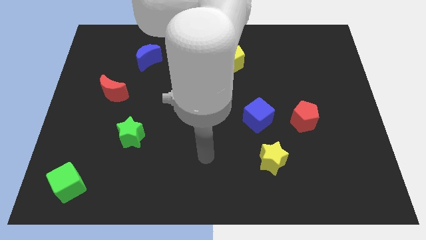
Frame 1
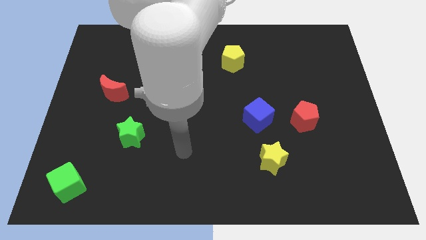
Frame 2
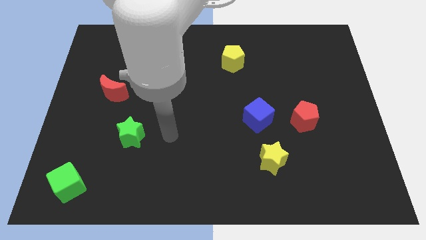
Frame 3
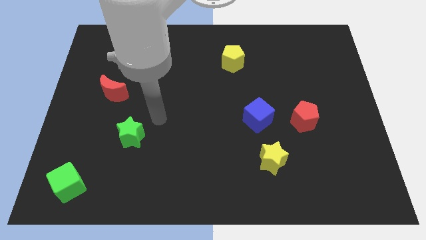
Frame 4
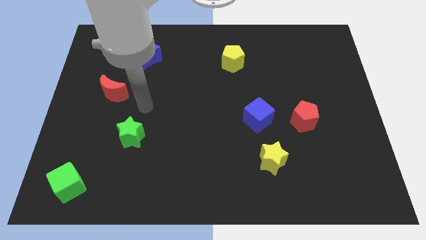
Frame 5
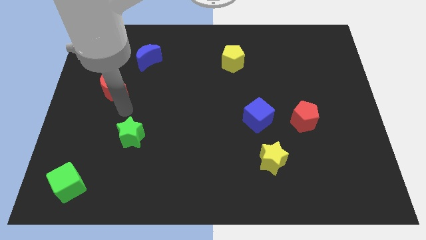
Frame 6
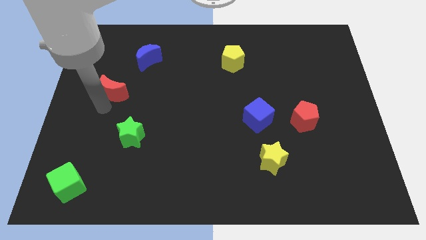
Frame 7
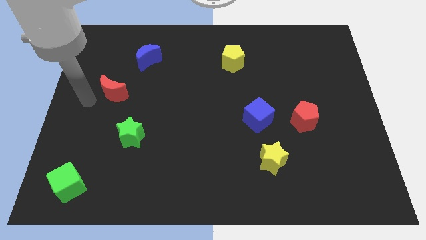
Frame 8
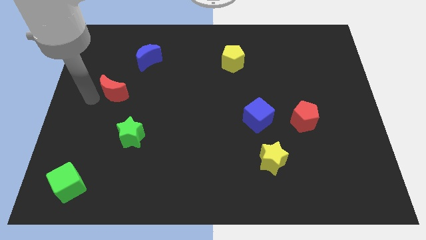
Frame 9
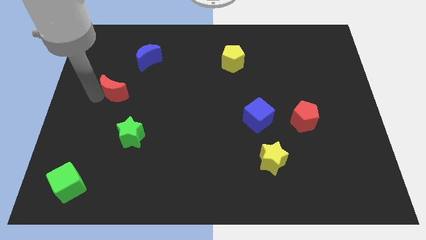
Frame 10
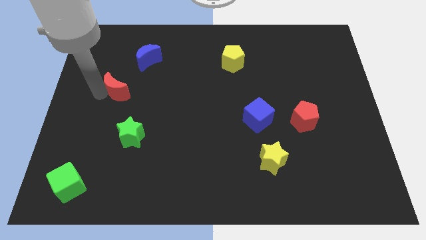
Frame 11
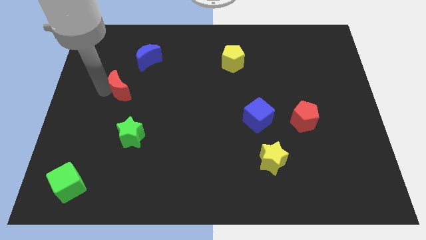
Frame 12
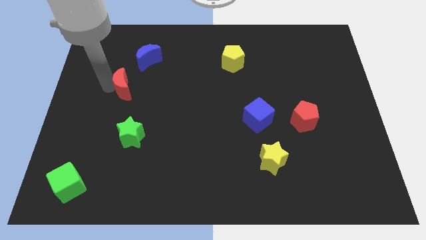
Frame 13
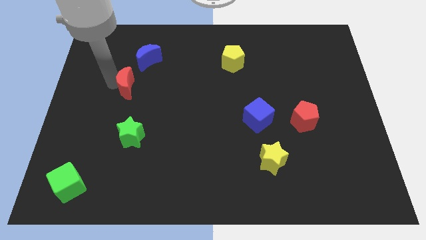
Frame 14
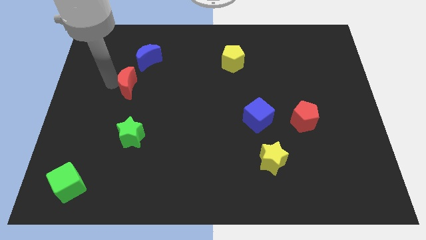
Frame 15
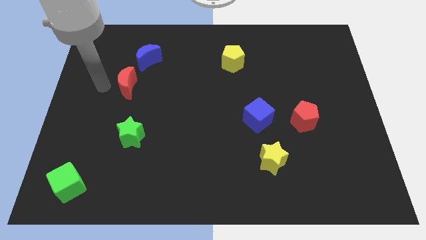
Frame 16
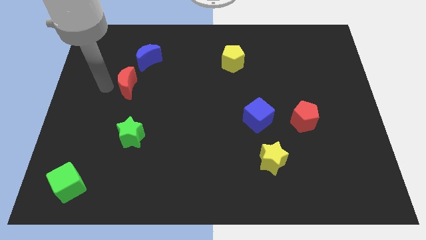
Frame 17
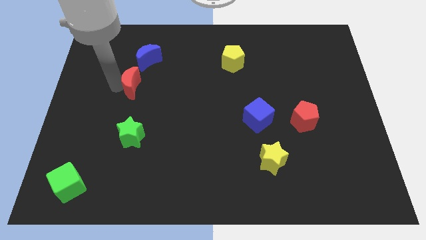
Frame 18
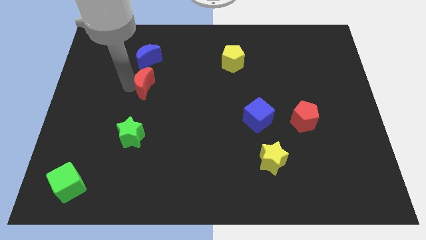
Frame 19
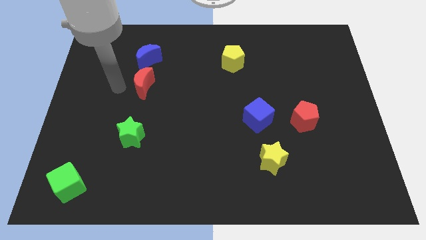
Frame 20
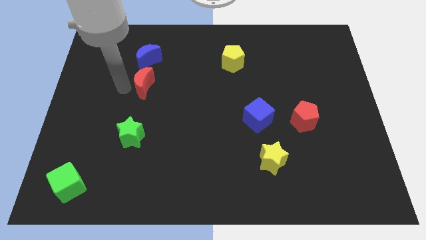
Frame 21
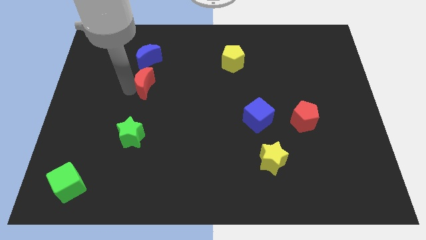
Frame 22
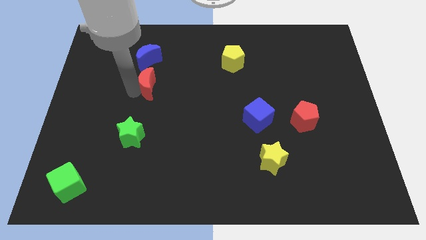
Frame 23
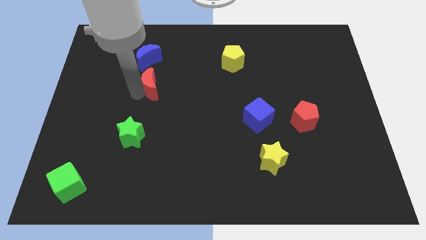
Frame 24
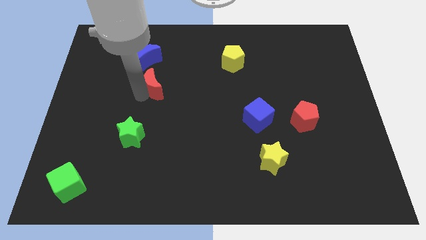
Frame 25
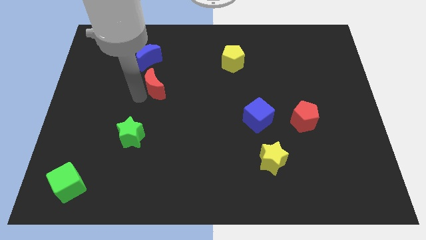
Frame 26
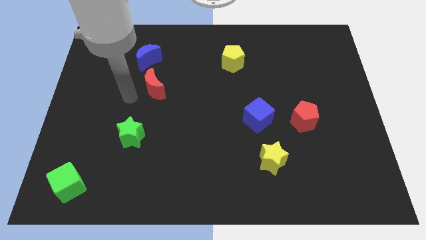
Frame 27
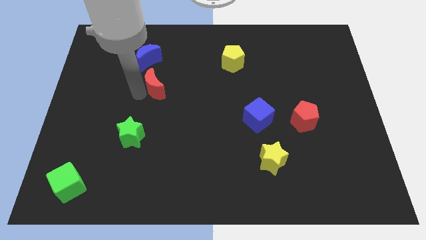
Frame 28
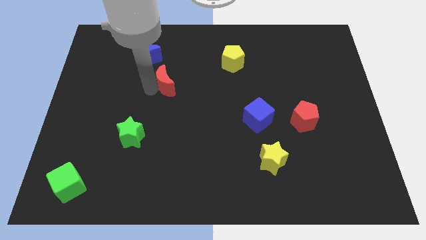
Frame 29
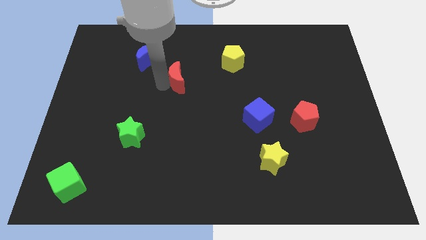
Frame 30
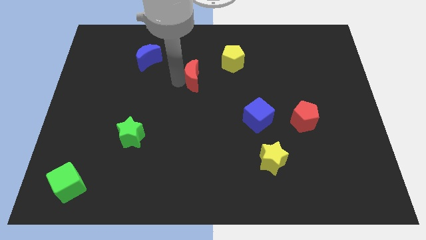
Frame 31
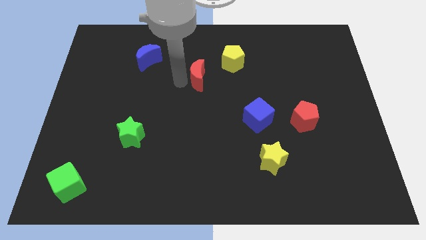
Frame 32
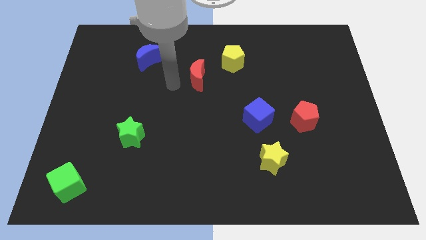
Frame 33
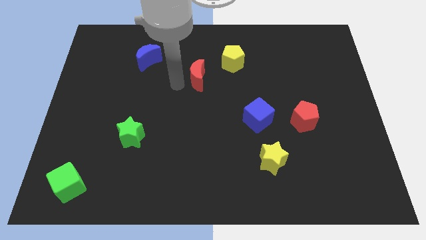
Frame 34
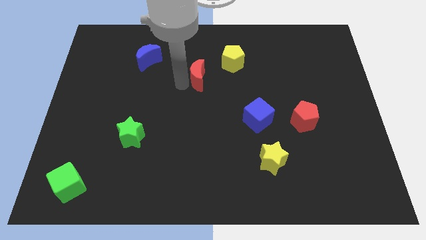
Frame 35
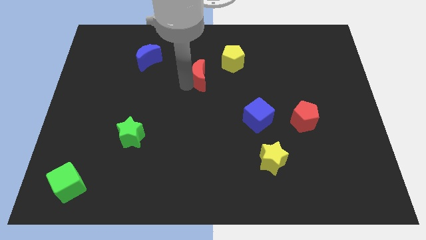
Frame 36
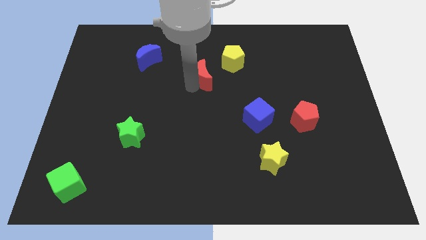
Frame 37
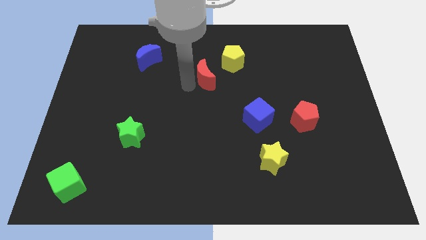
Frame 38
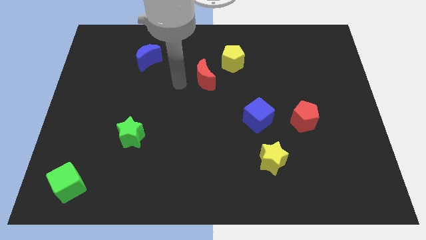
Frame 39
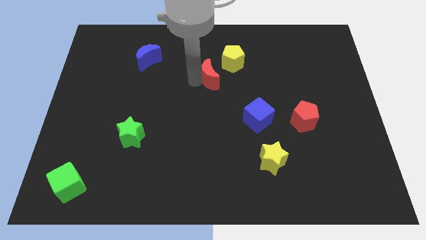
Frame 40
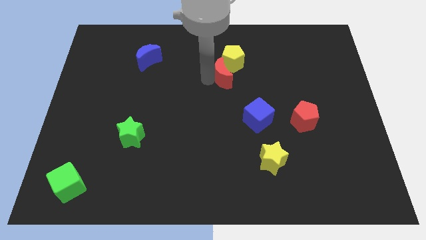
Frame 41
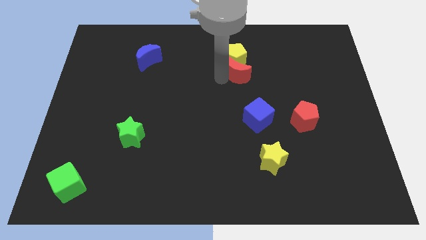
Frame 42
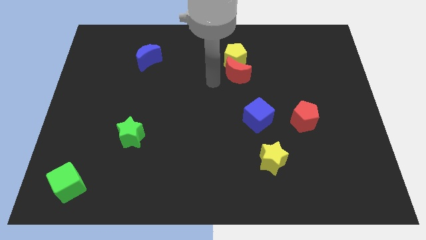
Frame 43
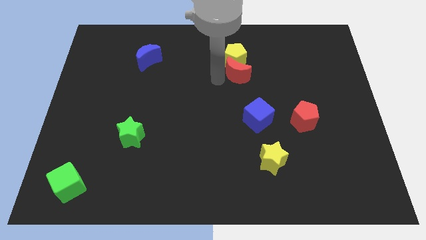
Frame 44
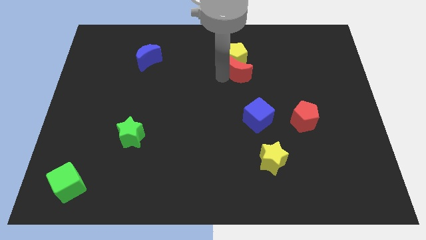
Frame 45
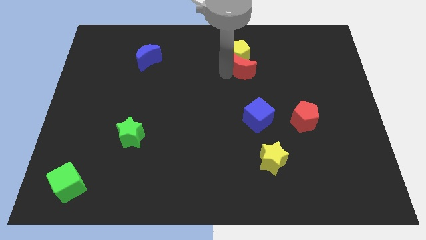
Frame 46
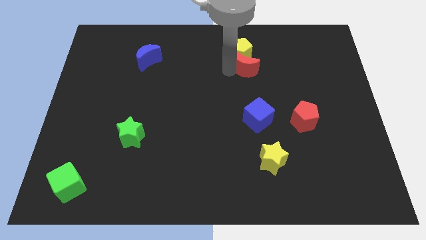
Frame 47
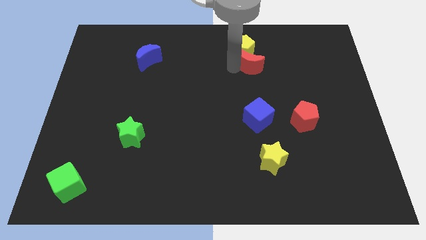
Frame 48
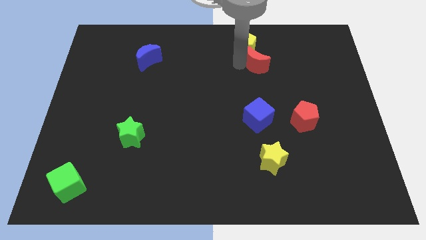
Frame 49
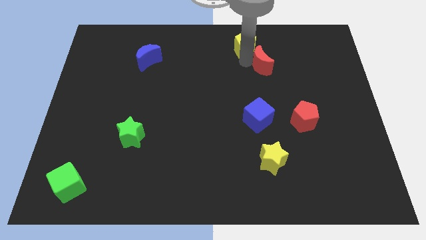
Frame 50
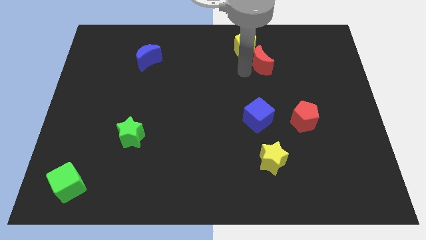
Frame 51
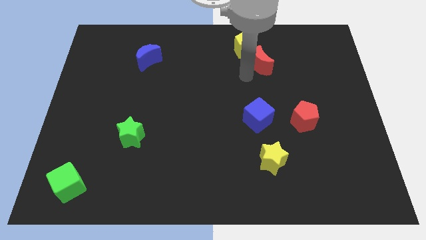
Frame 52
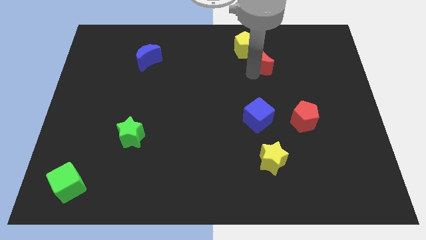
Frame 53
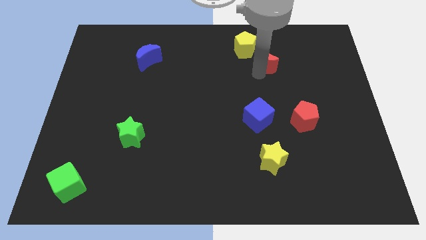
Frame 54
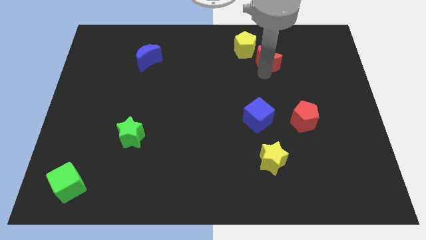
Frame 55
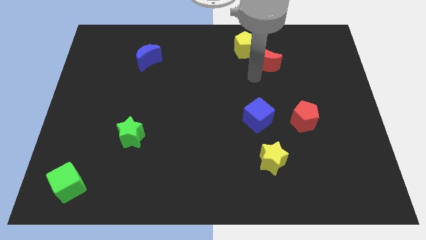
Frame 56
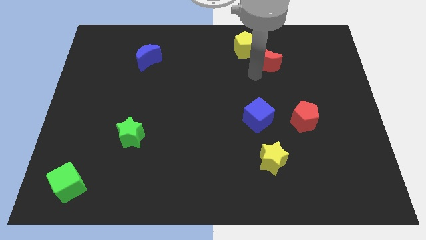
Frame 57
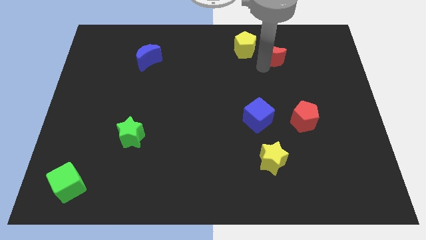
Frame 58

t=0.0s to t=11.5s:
slide the red moon just right of the yellow pentagon

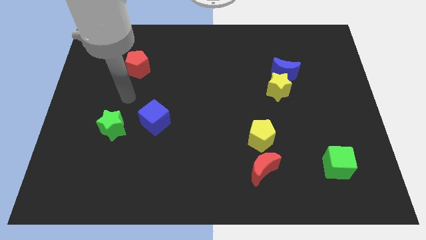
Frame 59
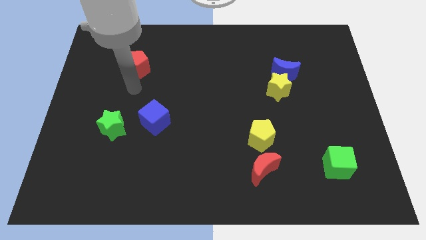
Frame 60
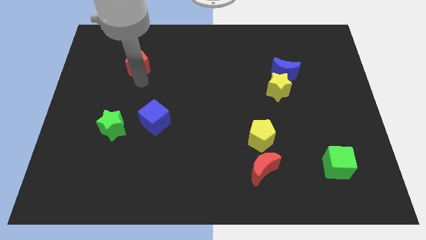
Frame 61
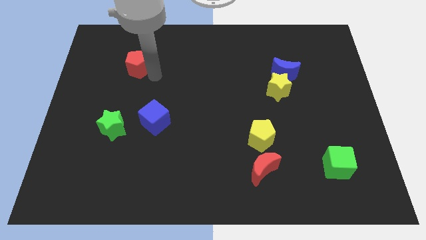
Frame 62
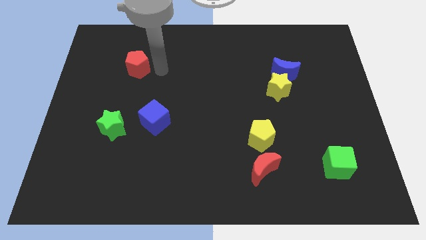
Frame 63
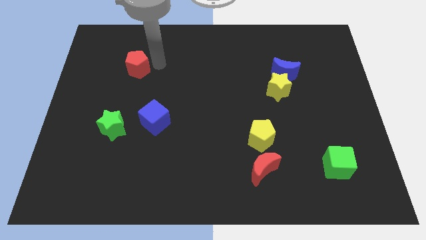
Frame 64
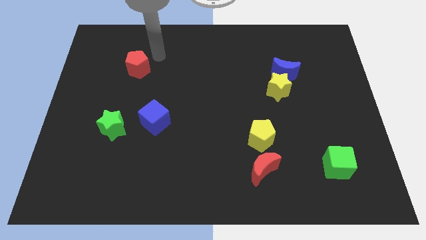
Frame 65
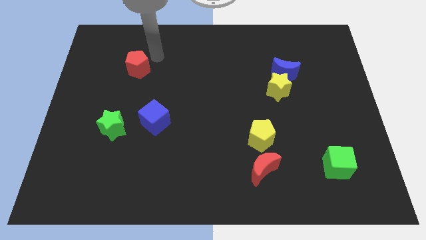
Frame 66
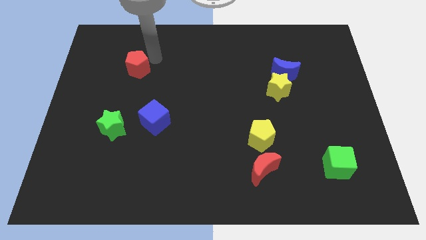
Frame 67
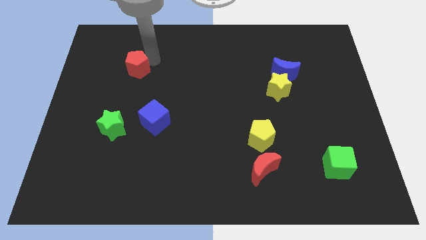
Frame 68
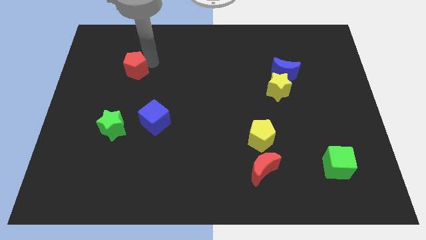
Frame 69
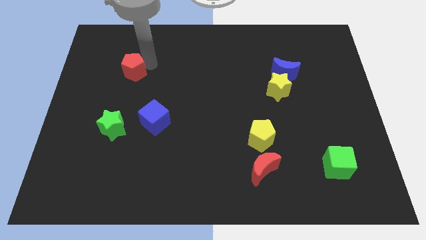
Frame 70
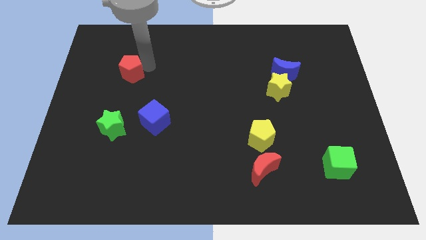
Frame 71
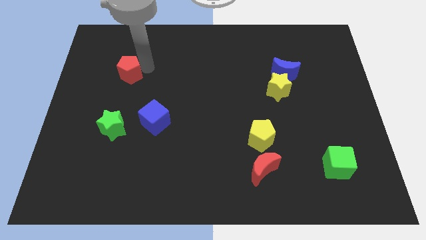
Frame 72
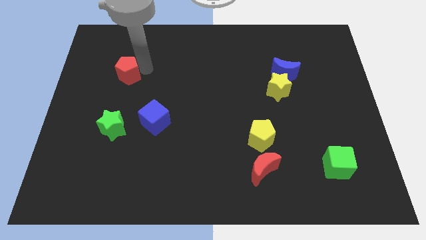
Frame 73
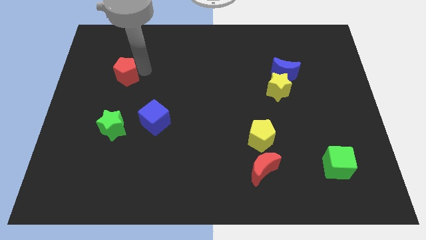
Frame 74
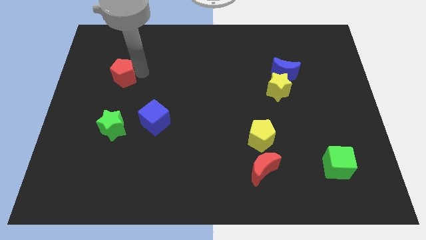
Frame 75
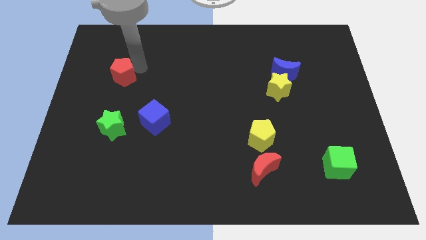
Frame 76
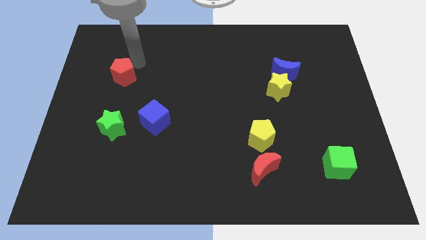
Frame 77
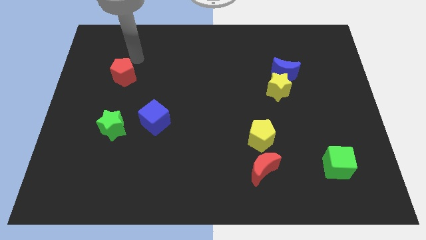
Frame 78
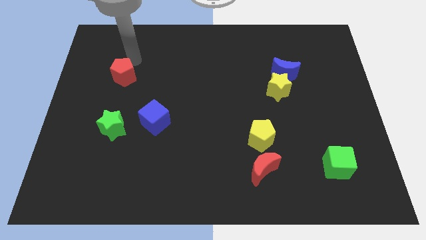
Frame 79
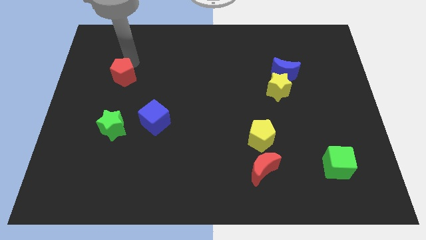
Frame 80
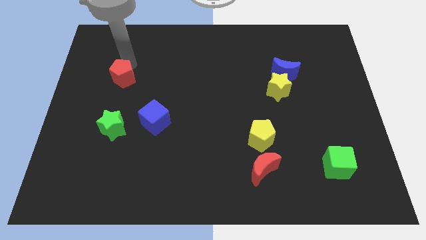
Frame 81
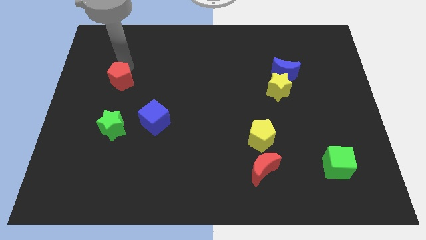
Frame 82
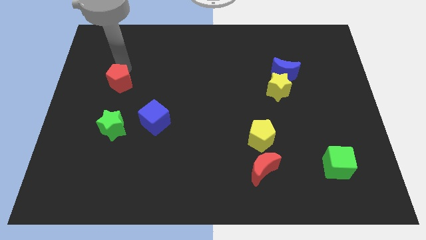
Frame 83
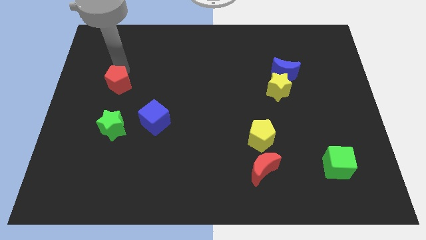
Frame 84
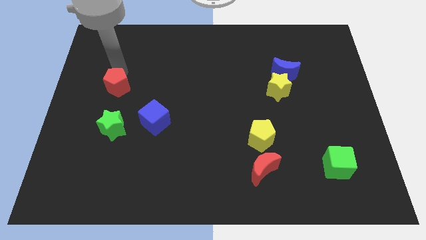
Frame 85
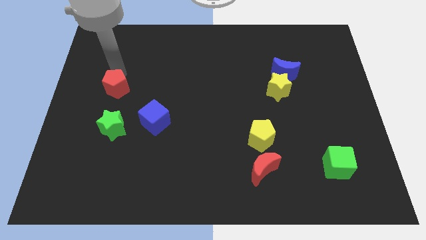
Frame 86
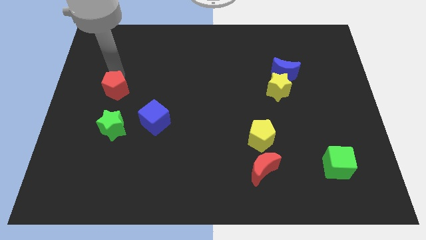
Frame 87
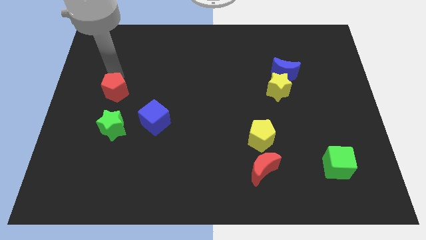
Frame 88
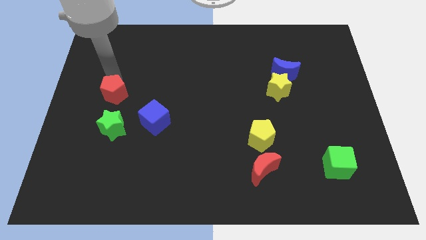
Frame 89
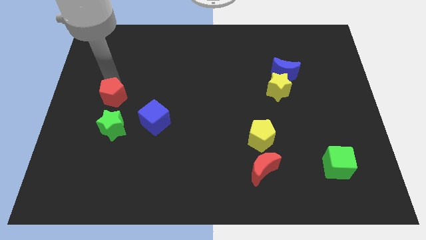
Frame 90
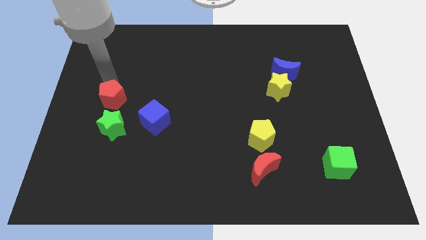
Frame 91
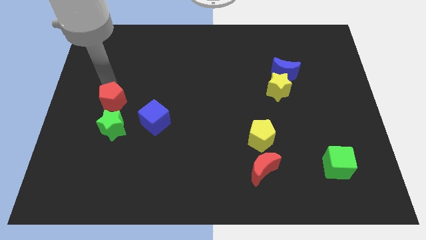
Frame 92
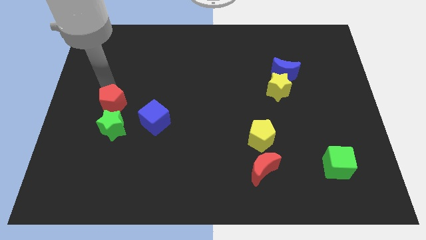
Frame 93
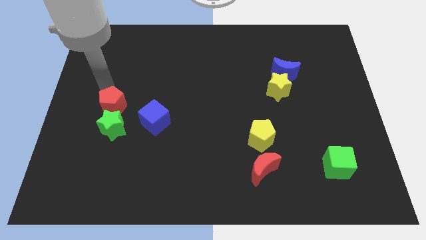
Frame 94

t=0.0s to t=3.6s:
put the red pentagon to the left side of the blue cube
